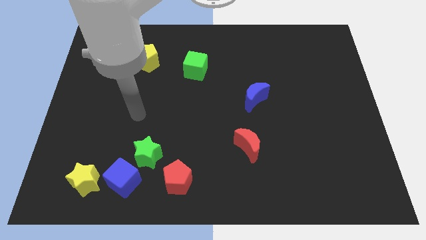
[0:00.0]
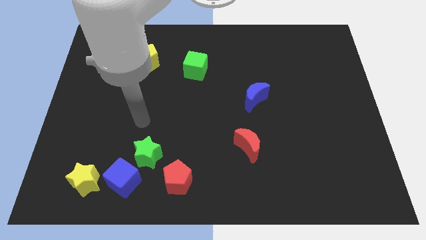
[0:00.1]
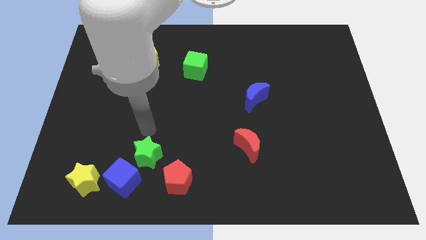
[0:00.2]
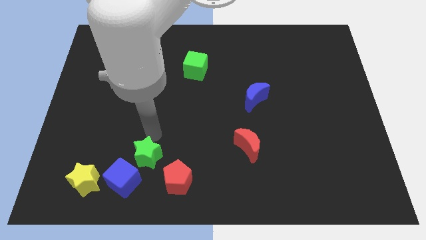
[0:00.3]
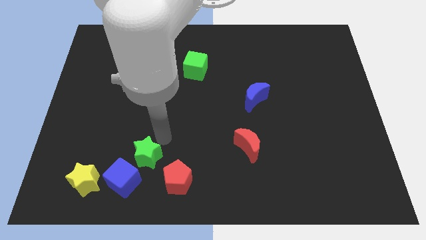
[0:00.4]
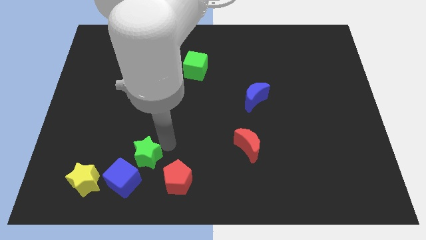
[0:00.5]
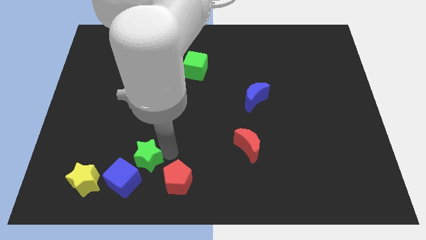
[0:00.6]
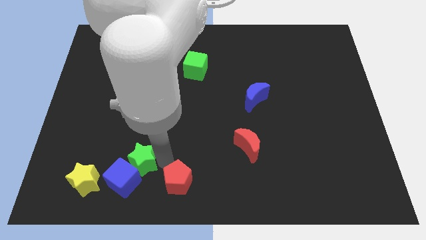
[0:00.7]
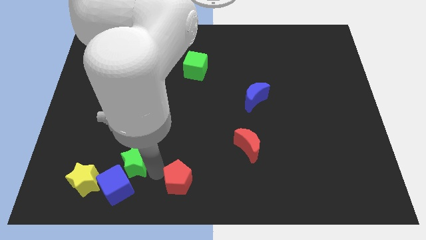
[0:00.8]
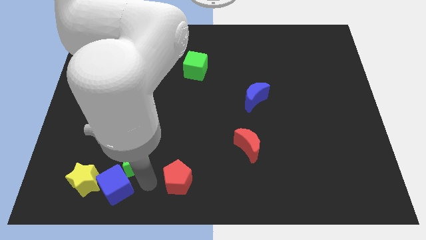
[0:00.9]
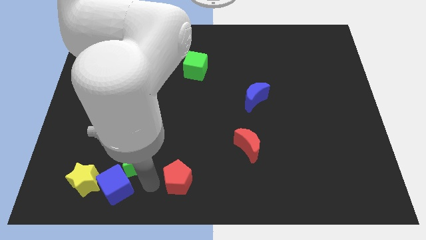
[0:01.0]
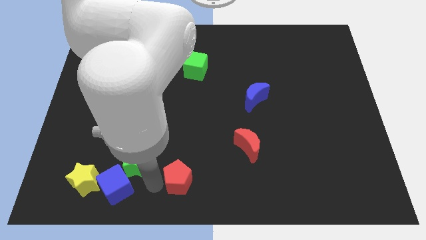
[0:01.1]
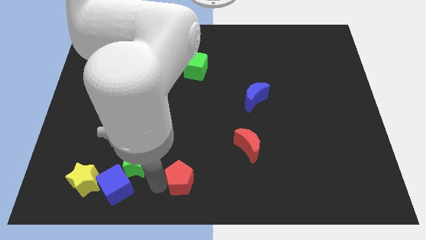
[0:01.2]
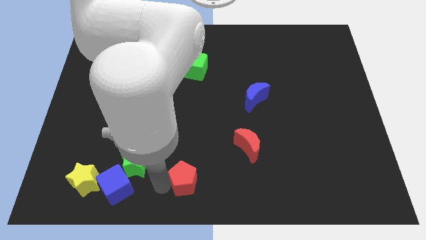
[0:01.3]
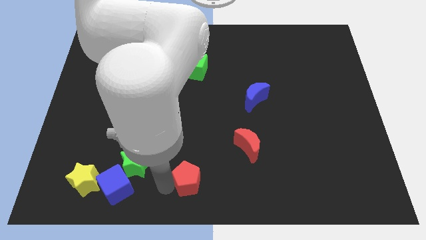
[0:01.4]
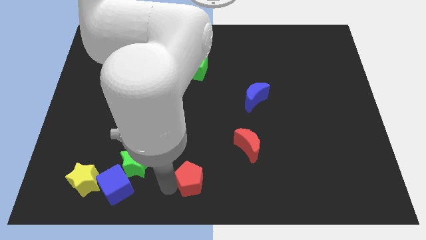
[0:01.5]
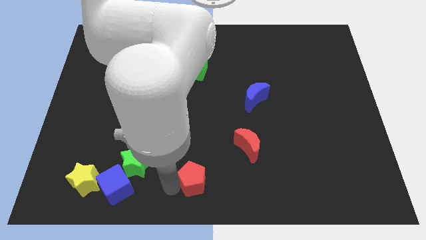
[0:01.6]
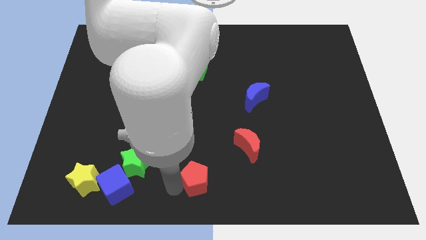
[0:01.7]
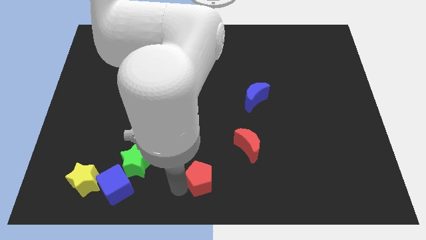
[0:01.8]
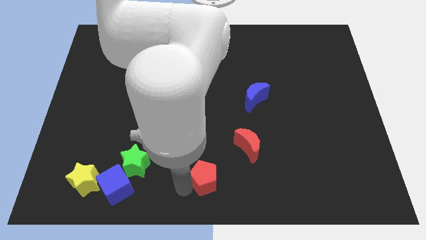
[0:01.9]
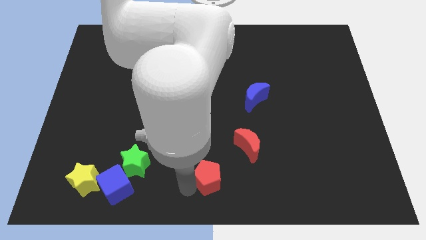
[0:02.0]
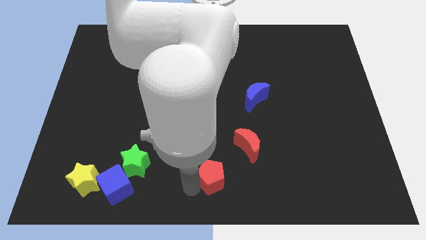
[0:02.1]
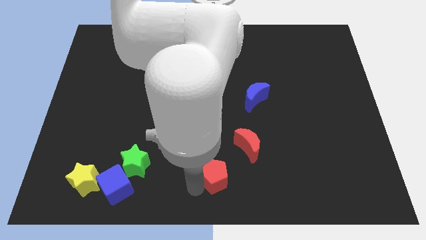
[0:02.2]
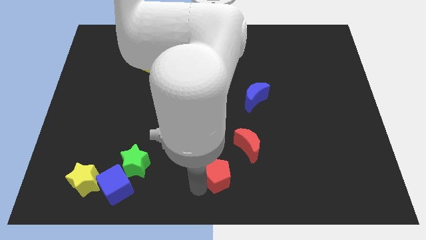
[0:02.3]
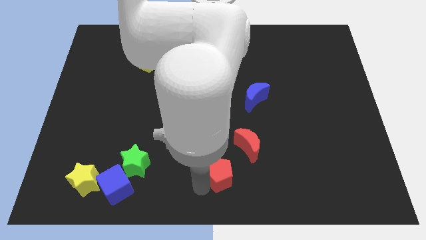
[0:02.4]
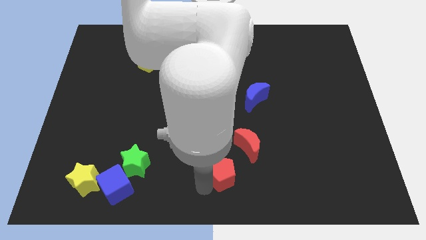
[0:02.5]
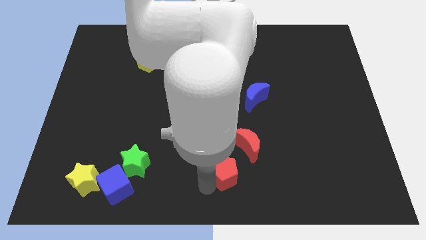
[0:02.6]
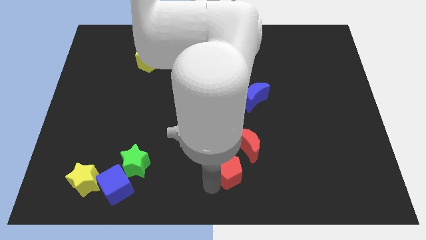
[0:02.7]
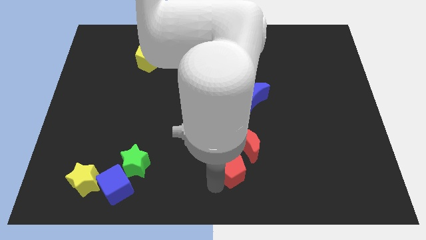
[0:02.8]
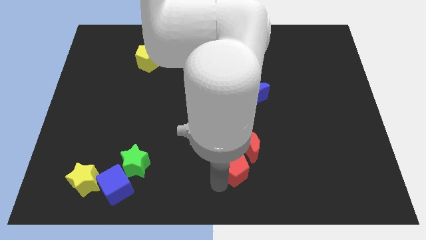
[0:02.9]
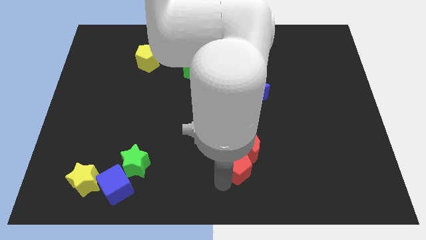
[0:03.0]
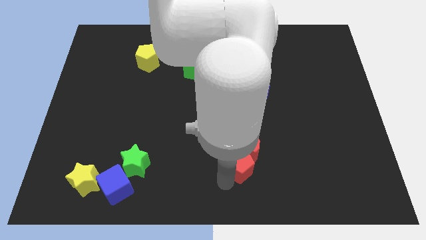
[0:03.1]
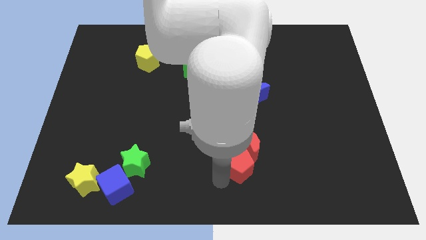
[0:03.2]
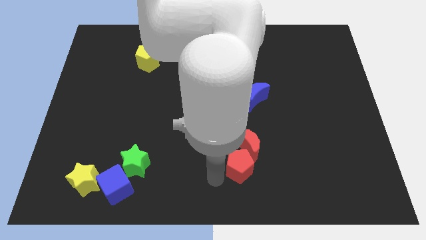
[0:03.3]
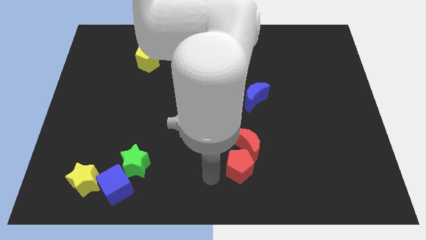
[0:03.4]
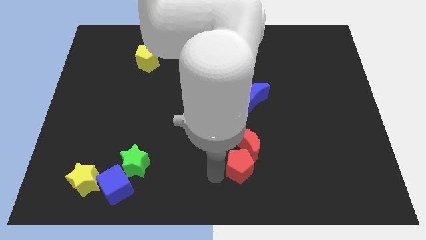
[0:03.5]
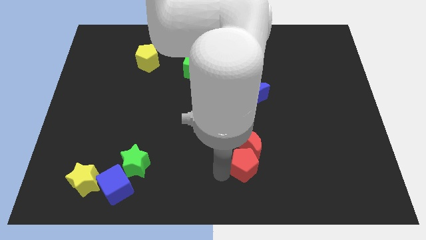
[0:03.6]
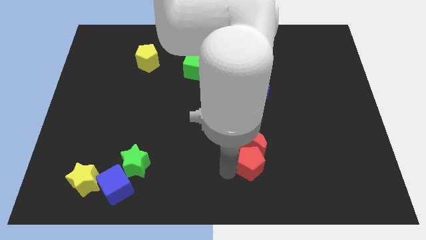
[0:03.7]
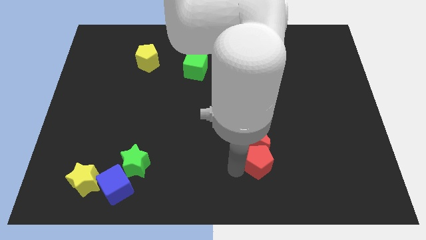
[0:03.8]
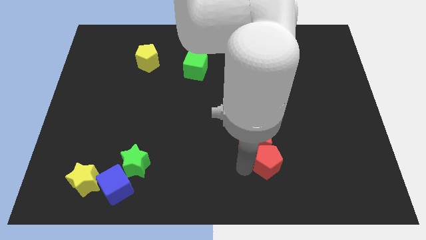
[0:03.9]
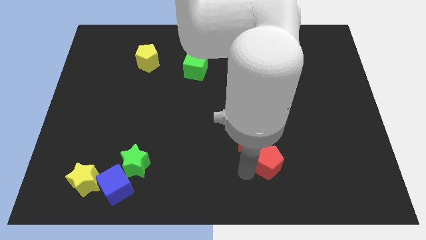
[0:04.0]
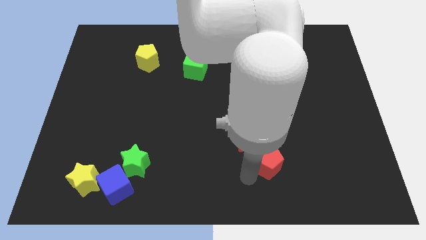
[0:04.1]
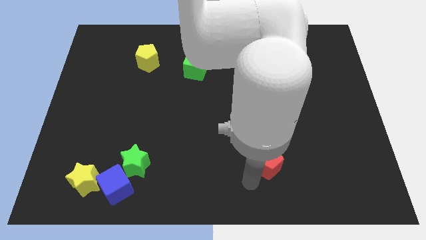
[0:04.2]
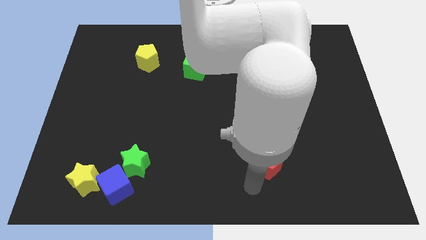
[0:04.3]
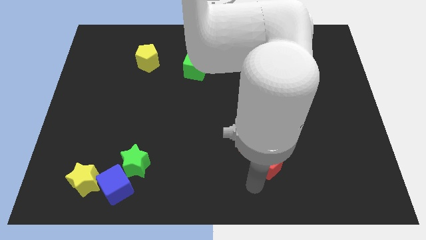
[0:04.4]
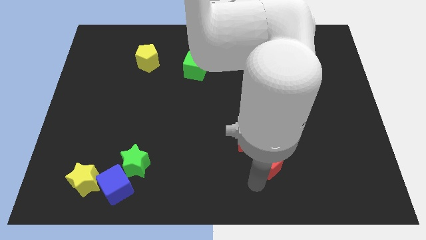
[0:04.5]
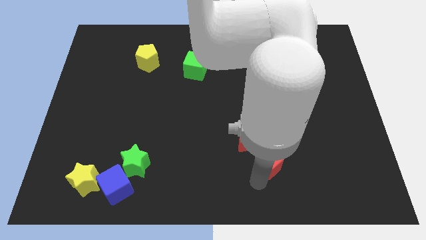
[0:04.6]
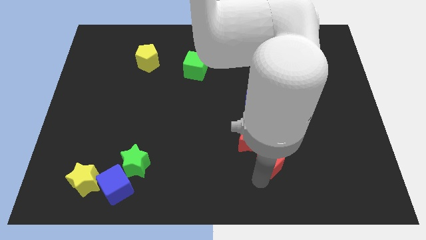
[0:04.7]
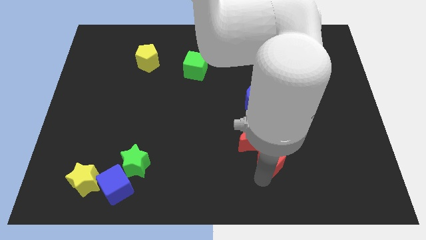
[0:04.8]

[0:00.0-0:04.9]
put the red pentagon to the right of the red moon

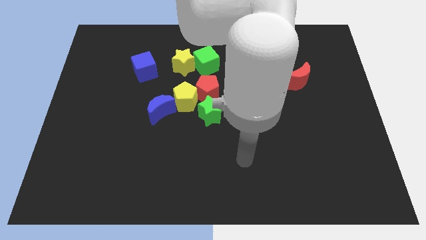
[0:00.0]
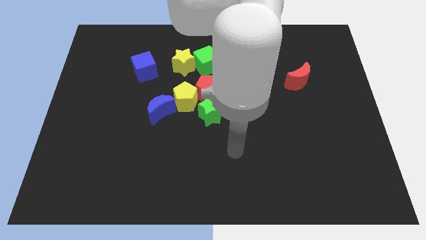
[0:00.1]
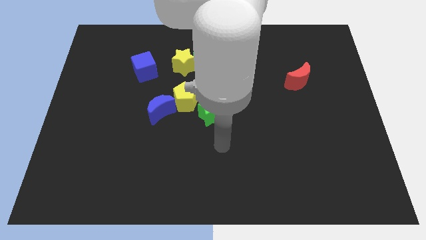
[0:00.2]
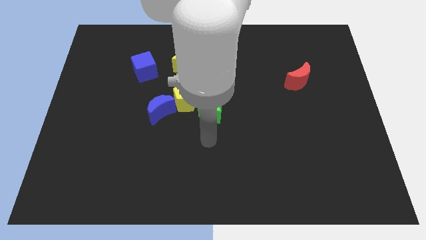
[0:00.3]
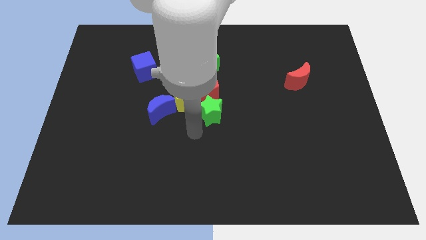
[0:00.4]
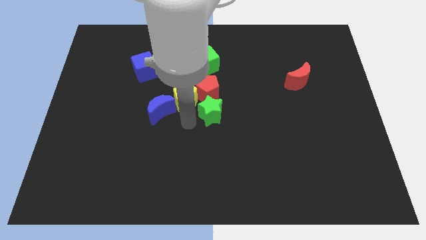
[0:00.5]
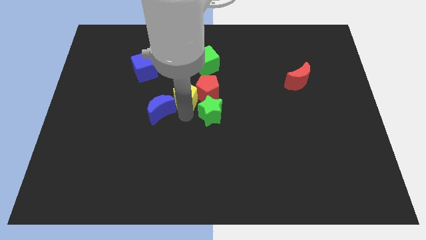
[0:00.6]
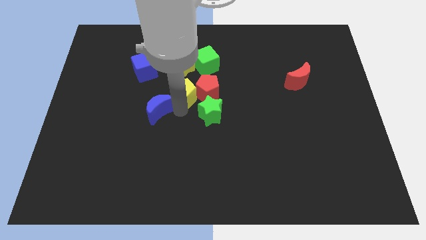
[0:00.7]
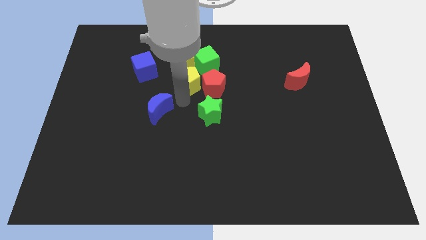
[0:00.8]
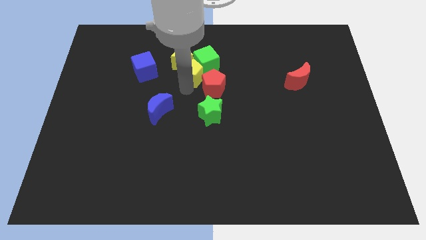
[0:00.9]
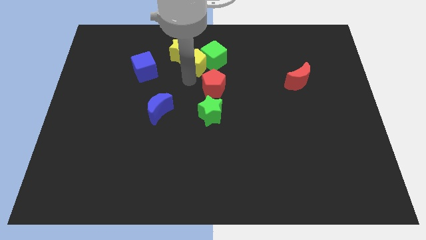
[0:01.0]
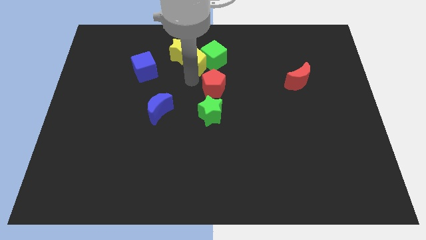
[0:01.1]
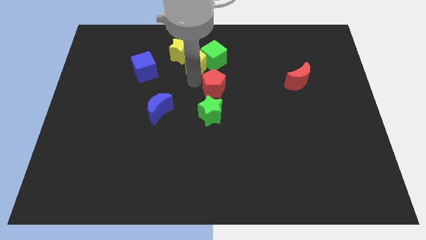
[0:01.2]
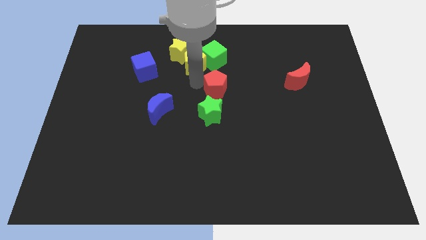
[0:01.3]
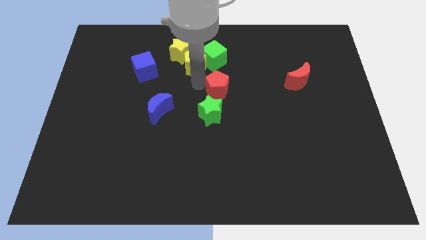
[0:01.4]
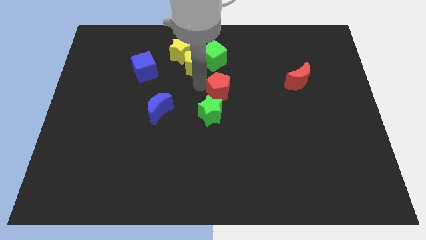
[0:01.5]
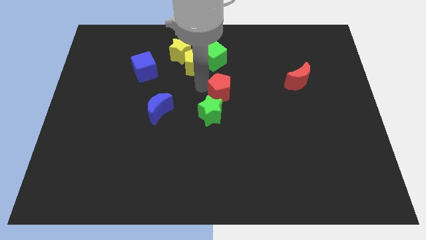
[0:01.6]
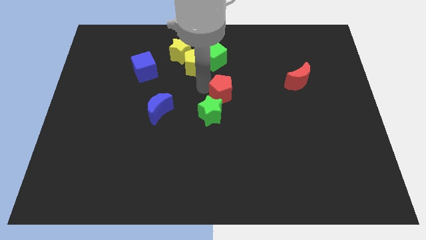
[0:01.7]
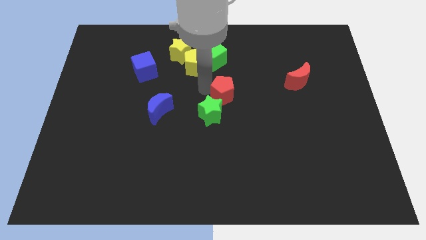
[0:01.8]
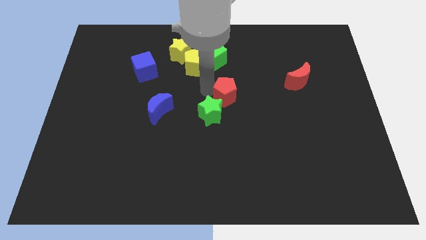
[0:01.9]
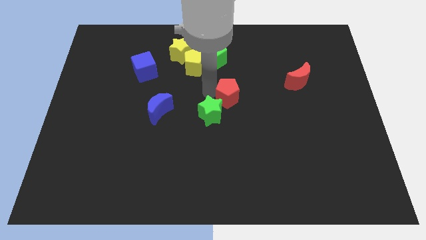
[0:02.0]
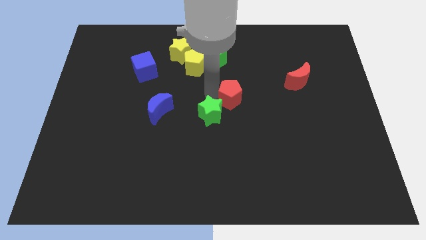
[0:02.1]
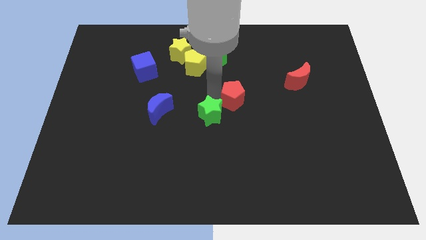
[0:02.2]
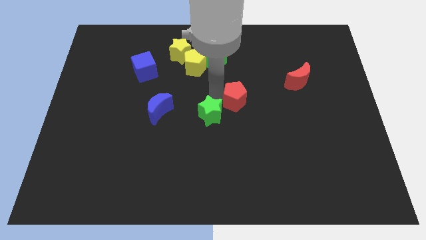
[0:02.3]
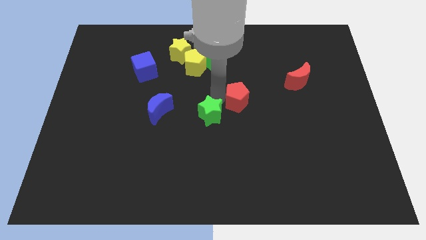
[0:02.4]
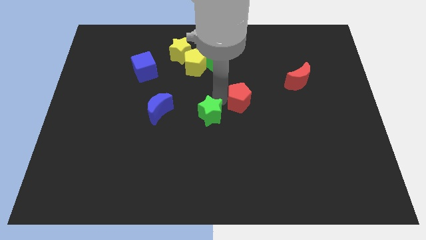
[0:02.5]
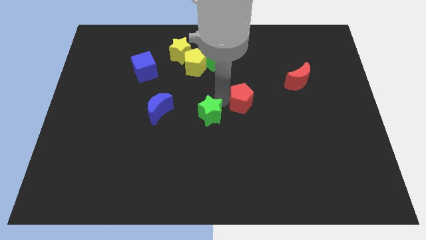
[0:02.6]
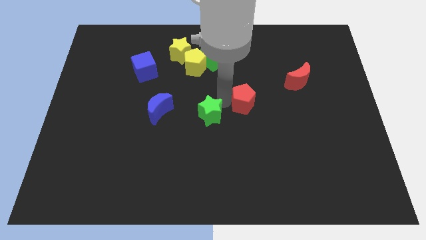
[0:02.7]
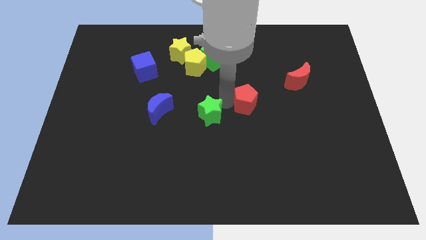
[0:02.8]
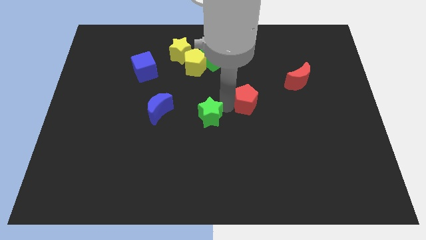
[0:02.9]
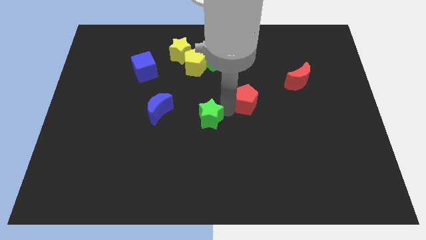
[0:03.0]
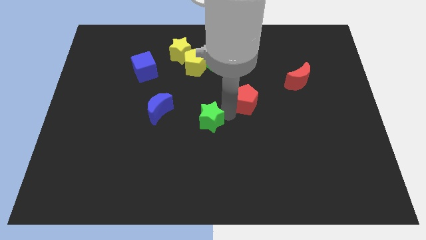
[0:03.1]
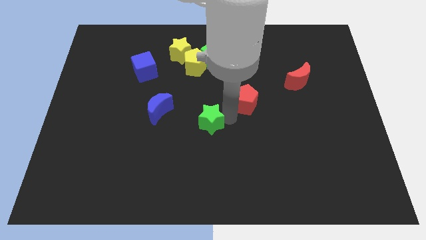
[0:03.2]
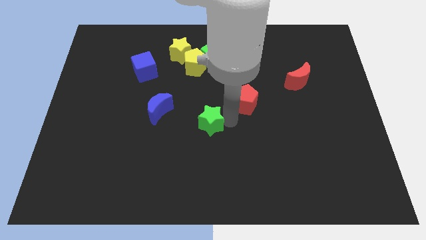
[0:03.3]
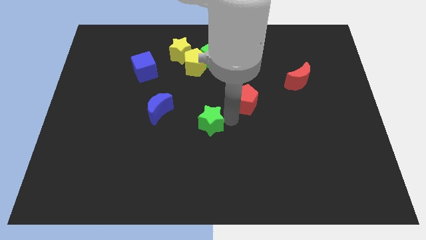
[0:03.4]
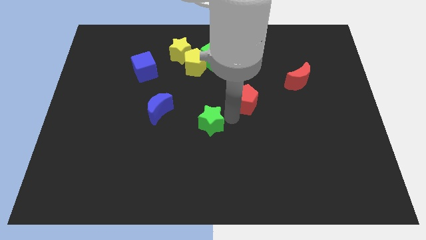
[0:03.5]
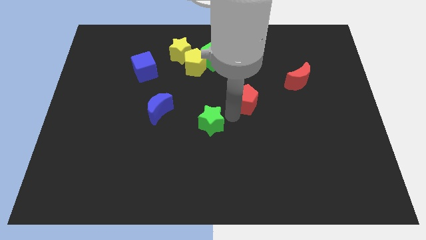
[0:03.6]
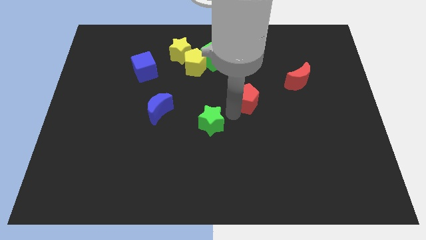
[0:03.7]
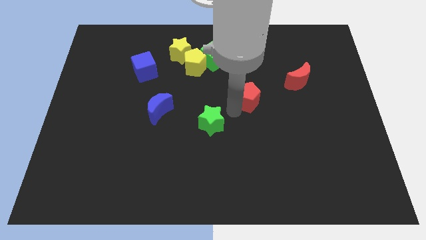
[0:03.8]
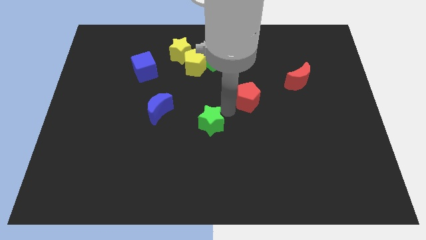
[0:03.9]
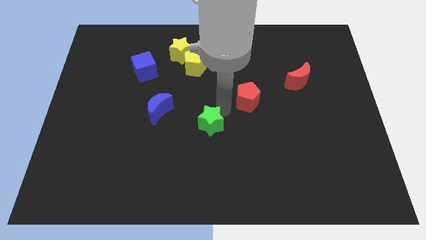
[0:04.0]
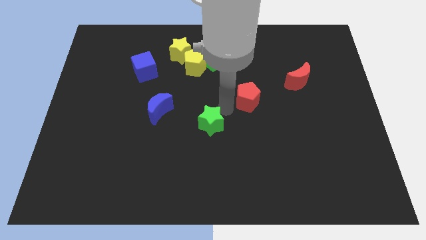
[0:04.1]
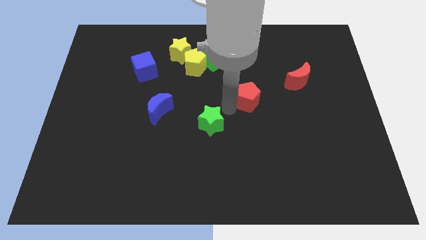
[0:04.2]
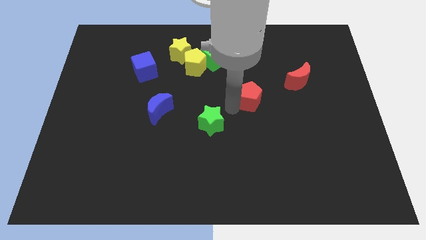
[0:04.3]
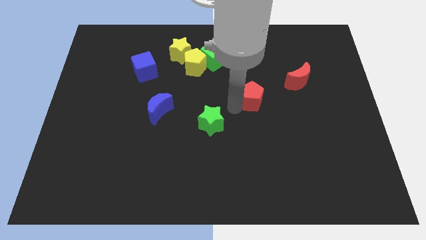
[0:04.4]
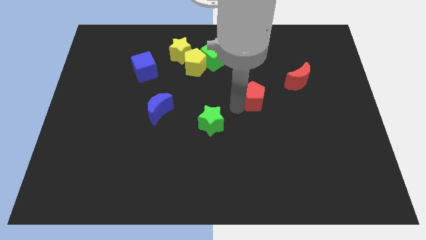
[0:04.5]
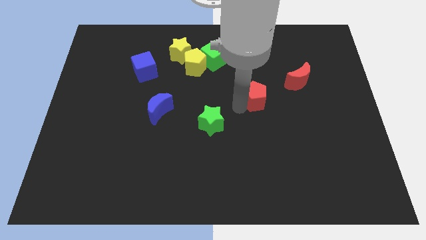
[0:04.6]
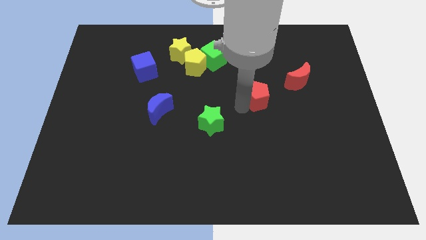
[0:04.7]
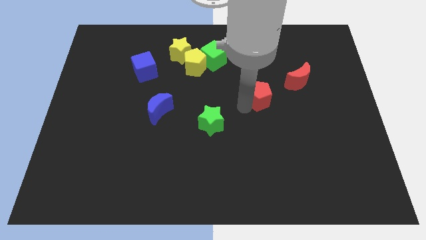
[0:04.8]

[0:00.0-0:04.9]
push the red pentagon diagonally down and to the left of the red moon
